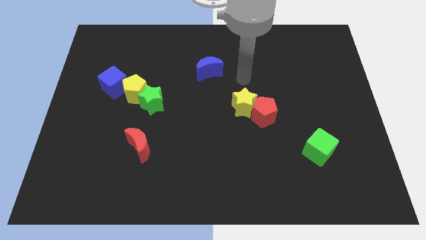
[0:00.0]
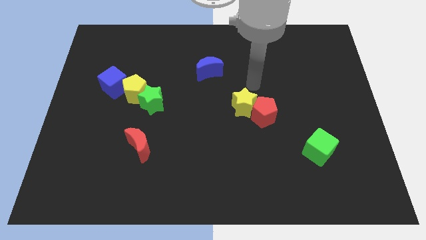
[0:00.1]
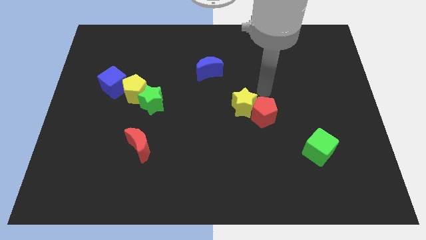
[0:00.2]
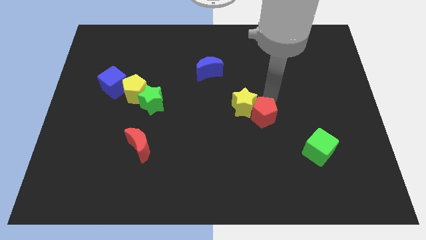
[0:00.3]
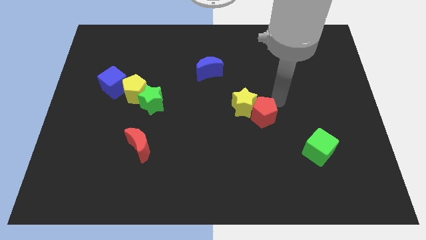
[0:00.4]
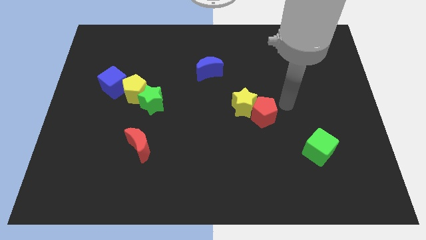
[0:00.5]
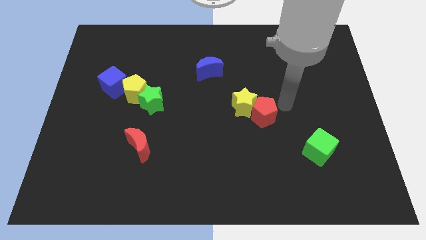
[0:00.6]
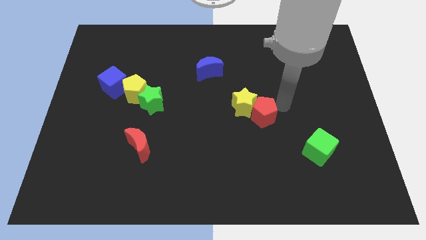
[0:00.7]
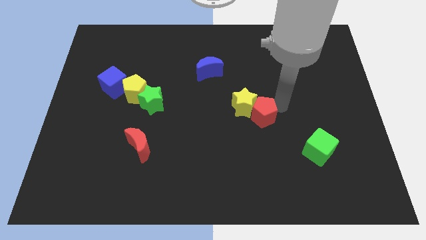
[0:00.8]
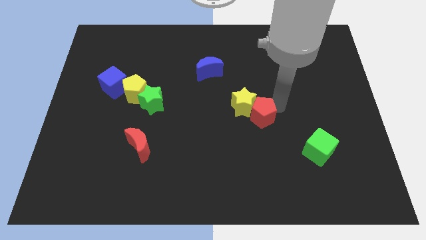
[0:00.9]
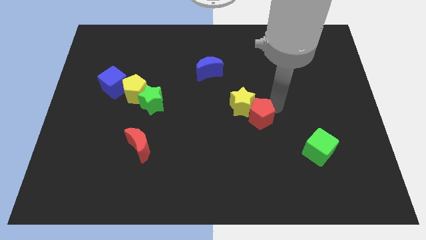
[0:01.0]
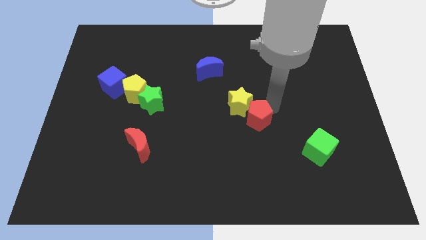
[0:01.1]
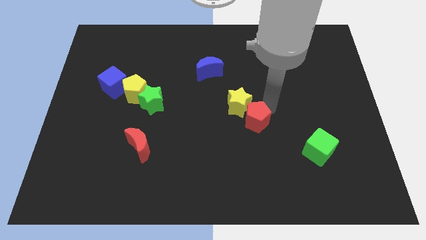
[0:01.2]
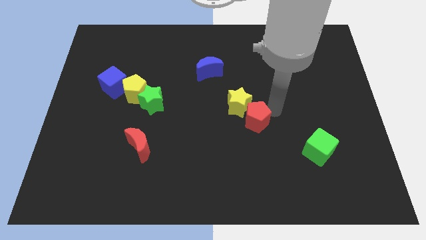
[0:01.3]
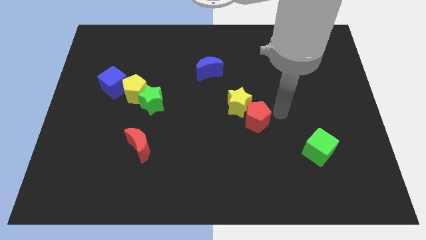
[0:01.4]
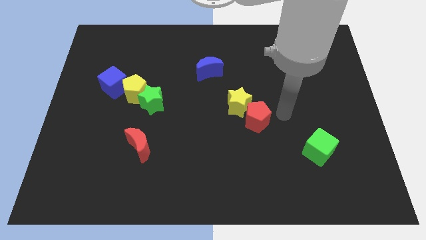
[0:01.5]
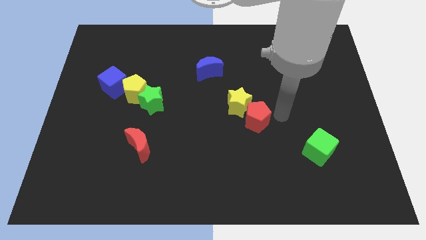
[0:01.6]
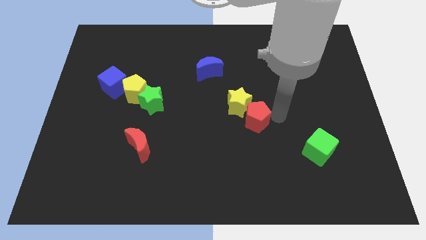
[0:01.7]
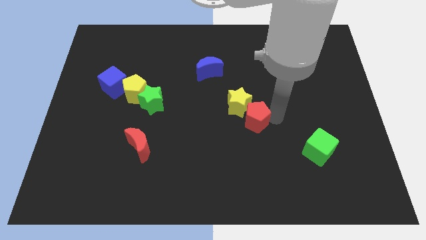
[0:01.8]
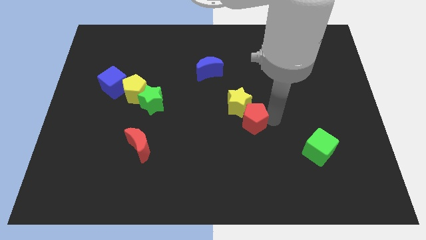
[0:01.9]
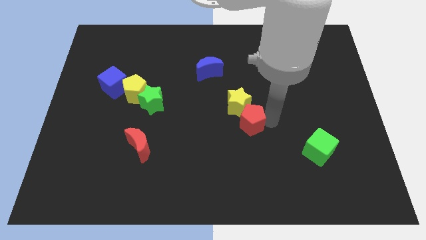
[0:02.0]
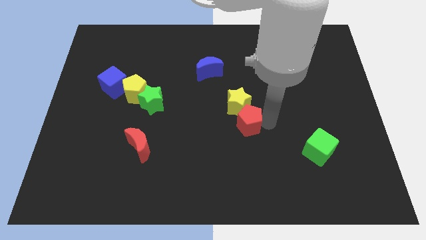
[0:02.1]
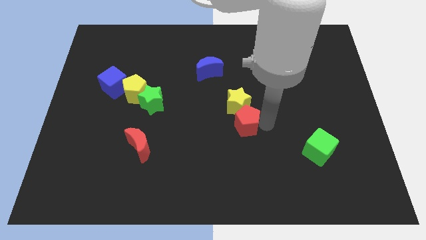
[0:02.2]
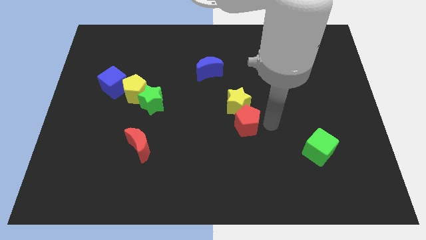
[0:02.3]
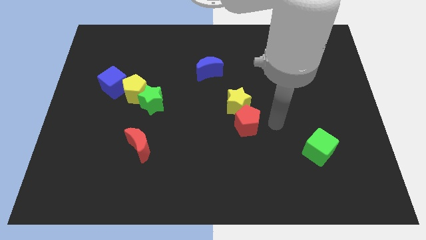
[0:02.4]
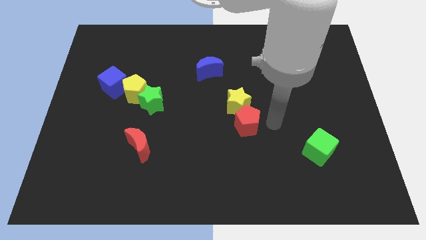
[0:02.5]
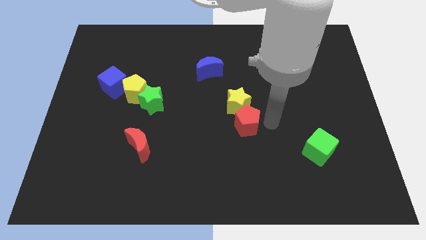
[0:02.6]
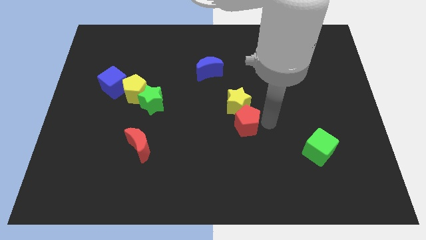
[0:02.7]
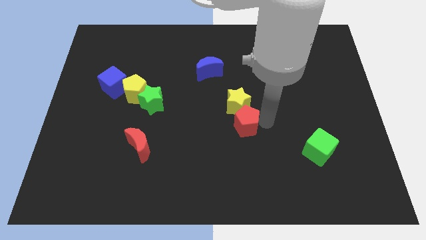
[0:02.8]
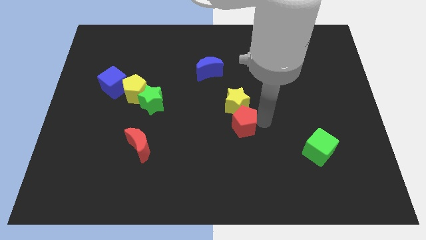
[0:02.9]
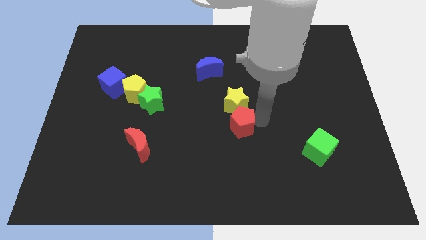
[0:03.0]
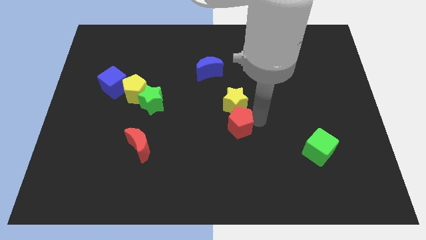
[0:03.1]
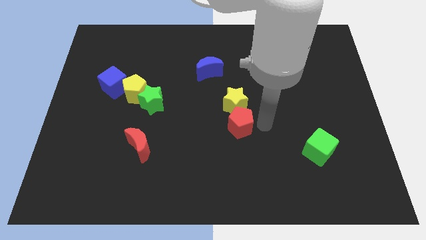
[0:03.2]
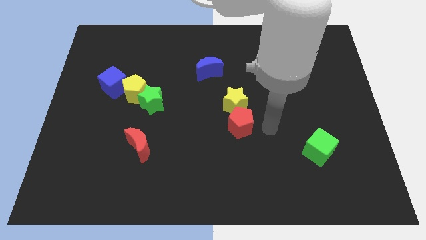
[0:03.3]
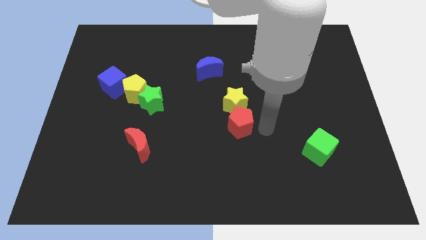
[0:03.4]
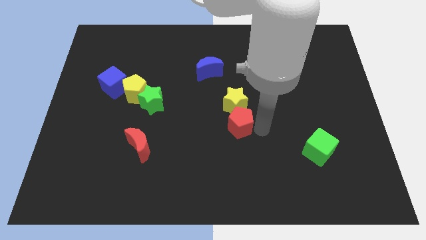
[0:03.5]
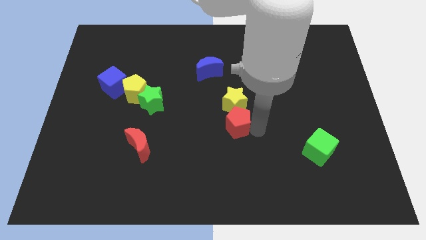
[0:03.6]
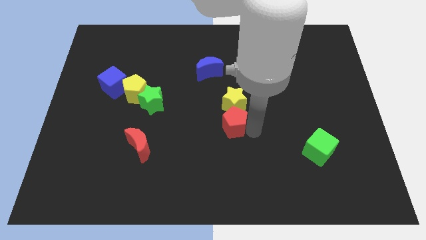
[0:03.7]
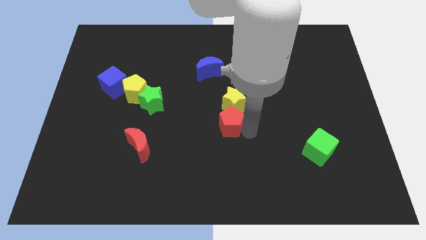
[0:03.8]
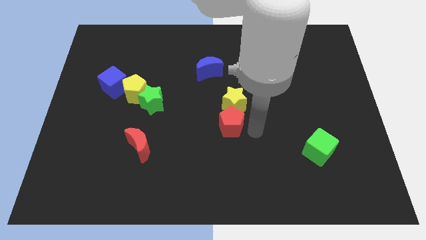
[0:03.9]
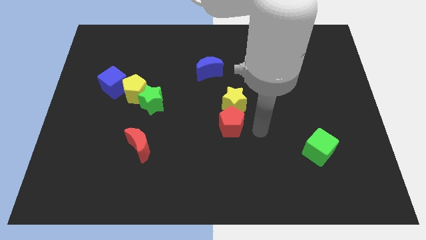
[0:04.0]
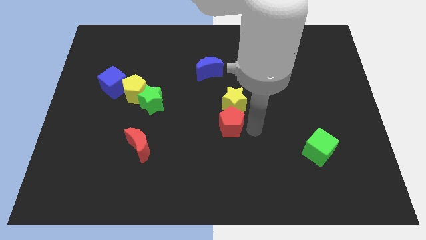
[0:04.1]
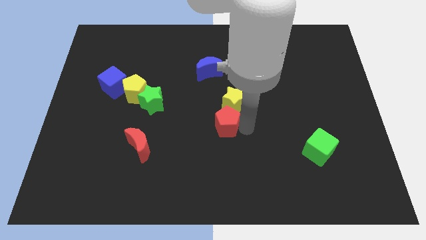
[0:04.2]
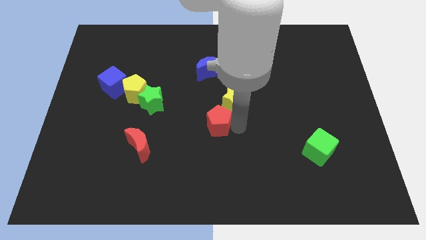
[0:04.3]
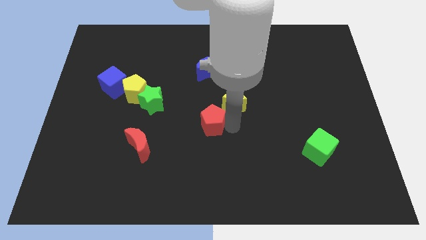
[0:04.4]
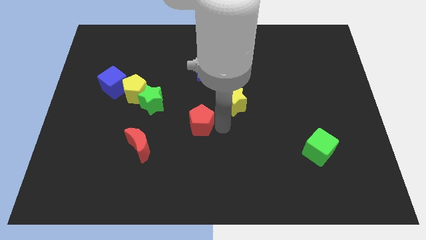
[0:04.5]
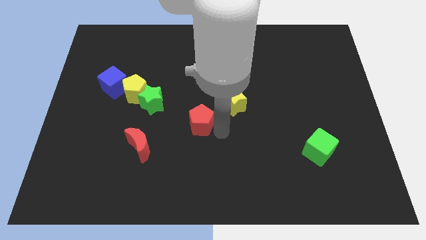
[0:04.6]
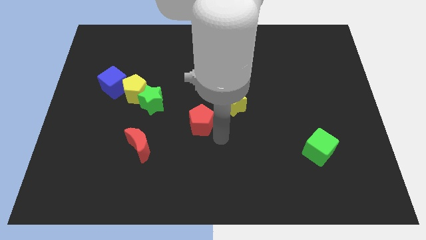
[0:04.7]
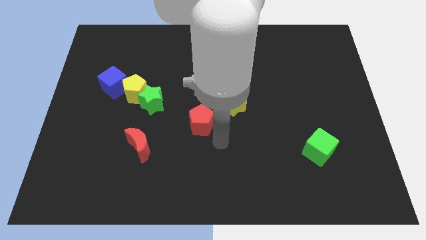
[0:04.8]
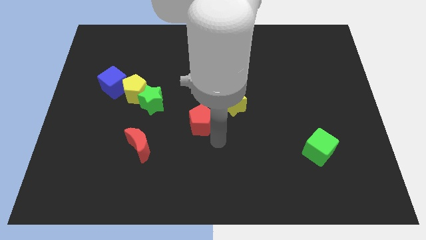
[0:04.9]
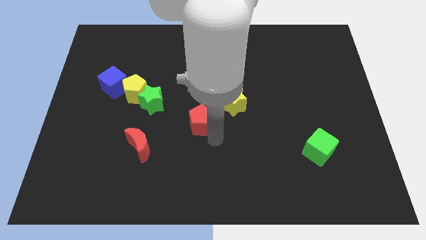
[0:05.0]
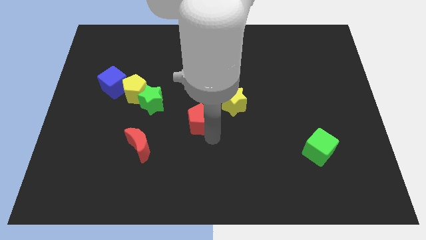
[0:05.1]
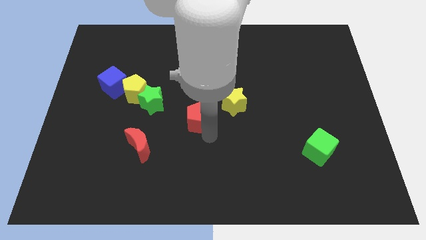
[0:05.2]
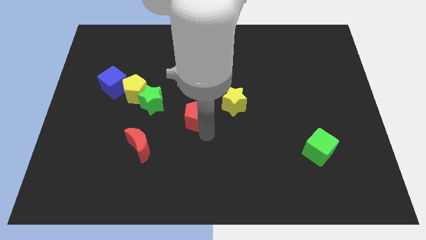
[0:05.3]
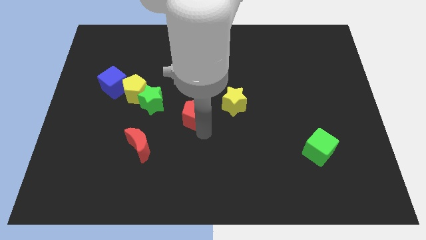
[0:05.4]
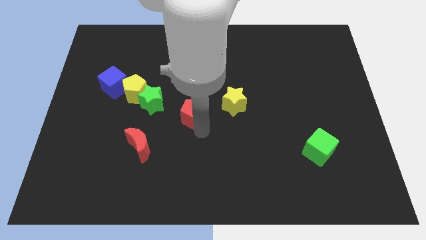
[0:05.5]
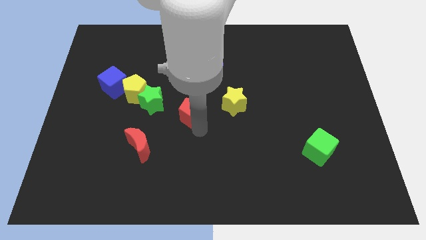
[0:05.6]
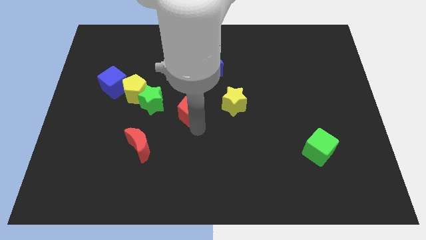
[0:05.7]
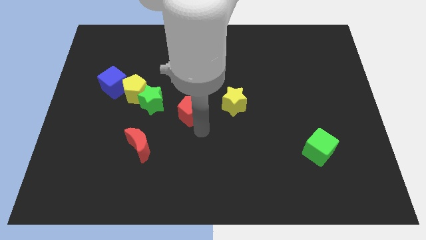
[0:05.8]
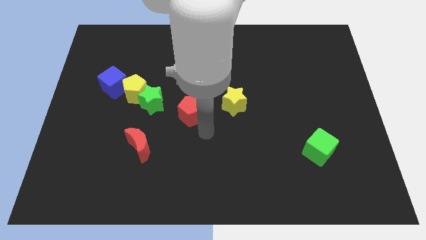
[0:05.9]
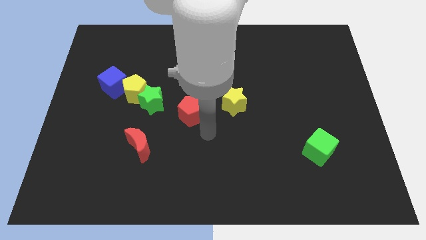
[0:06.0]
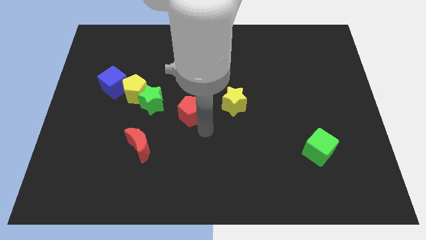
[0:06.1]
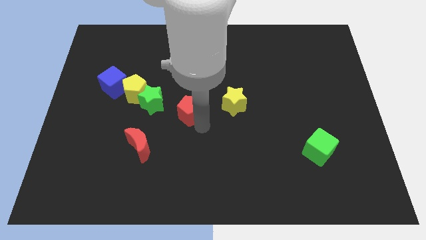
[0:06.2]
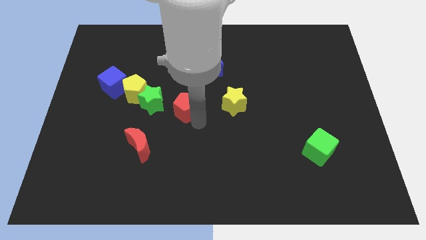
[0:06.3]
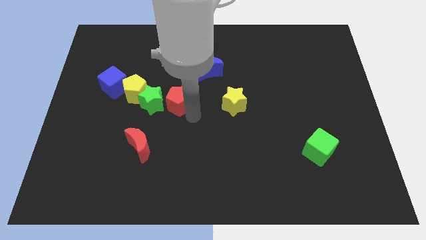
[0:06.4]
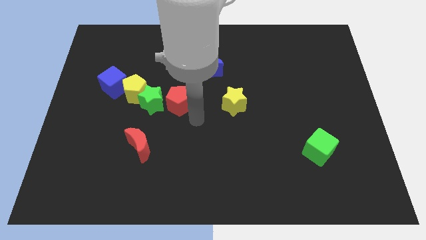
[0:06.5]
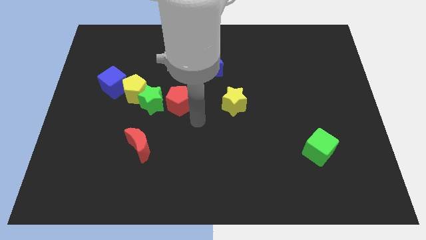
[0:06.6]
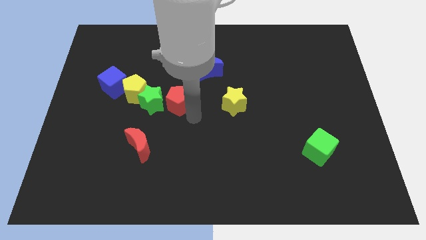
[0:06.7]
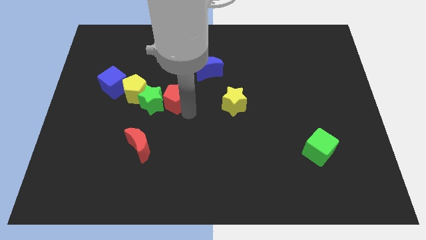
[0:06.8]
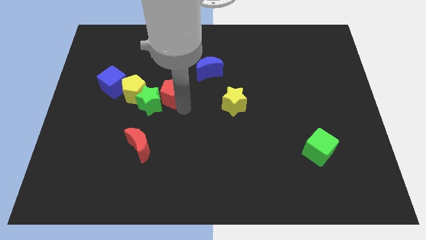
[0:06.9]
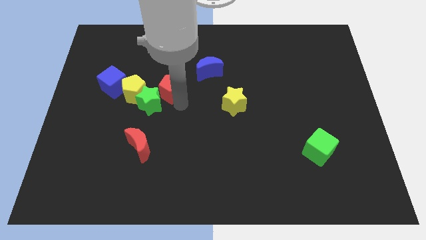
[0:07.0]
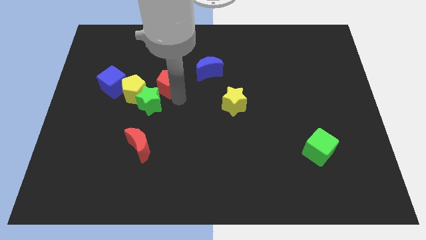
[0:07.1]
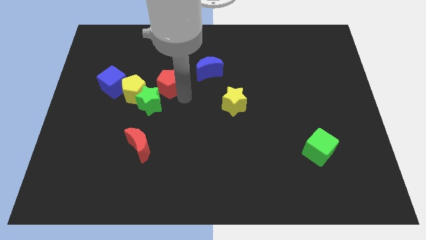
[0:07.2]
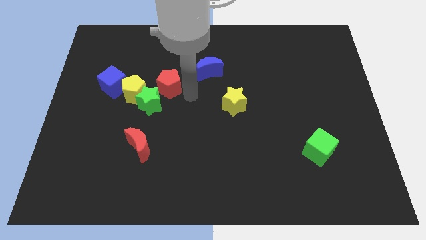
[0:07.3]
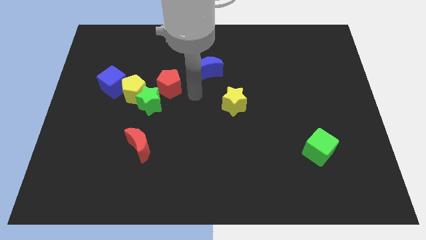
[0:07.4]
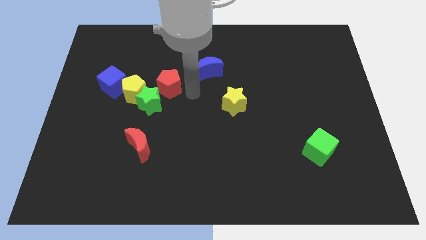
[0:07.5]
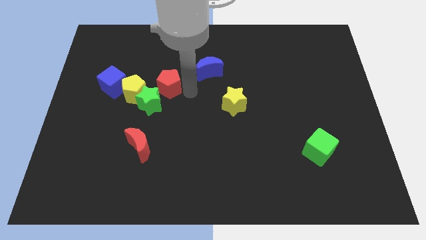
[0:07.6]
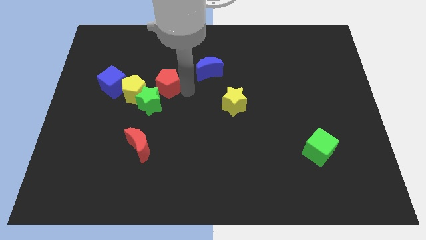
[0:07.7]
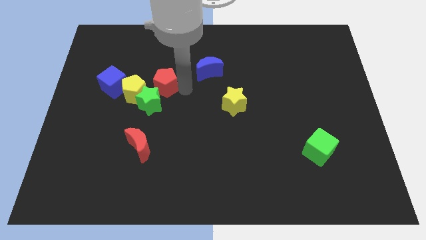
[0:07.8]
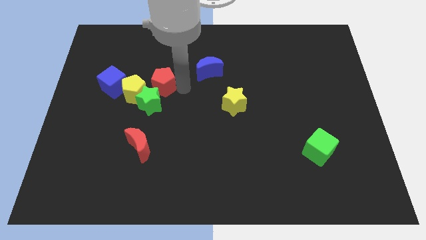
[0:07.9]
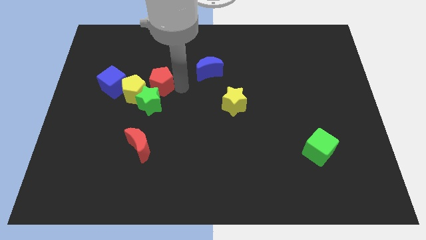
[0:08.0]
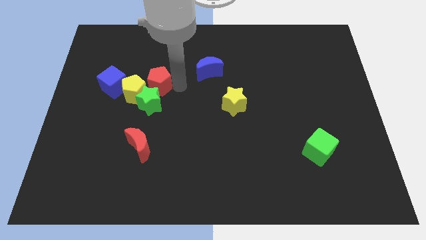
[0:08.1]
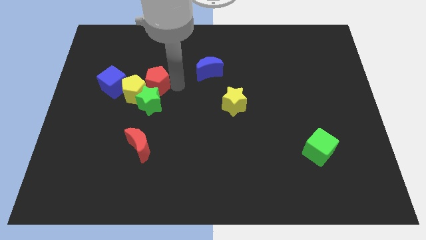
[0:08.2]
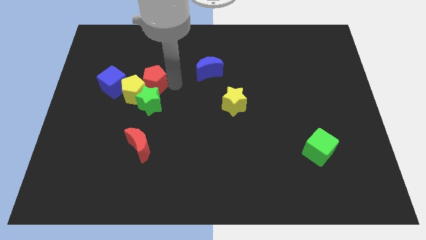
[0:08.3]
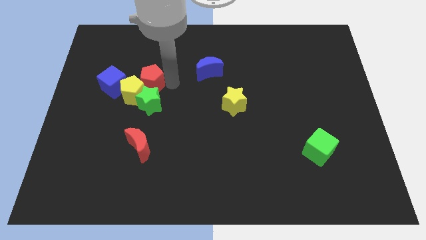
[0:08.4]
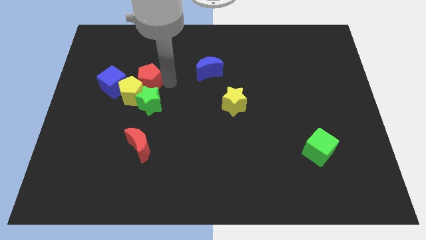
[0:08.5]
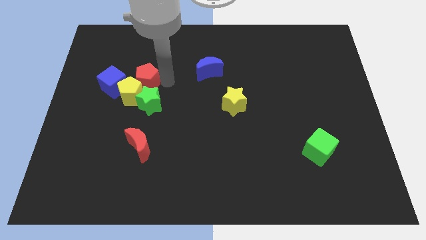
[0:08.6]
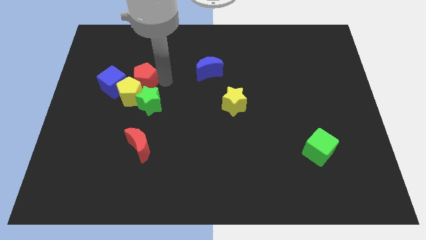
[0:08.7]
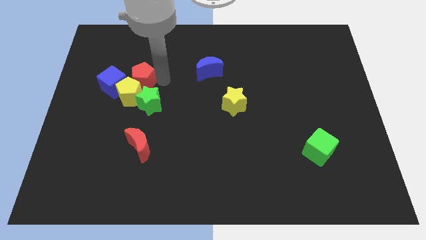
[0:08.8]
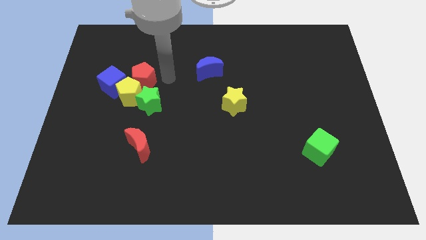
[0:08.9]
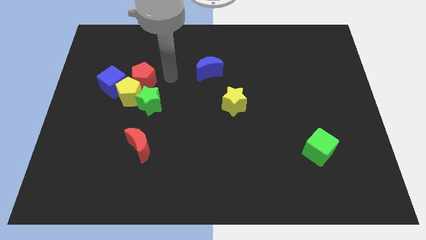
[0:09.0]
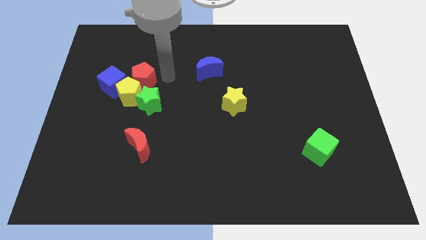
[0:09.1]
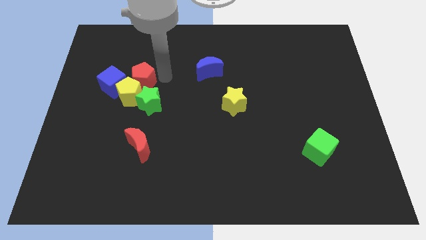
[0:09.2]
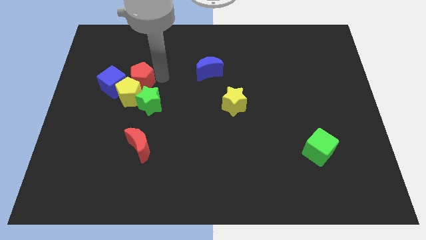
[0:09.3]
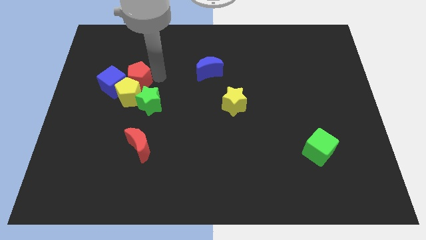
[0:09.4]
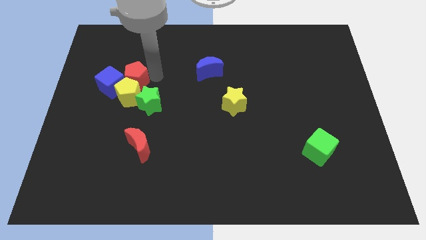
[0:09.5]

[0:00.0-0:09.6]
push the red pentagon close to the blue cube
